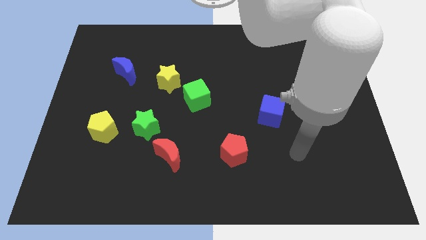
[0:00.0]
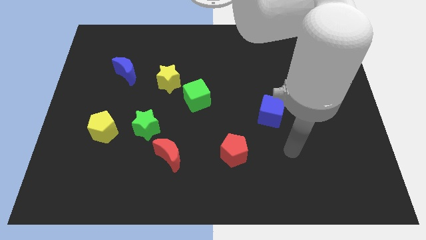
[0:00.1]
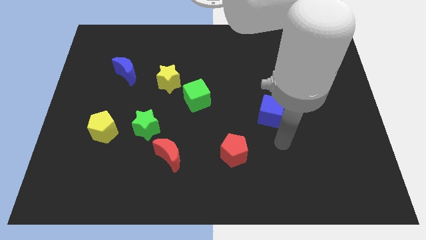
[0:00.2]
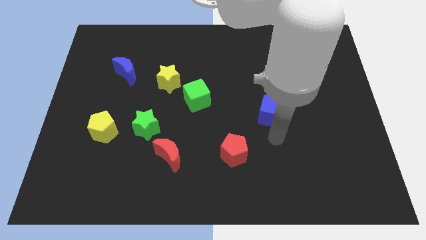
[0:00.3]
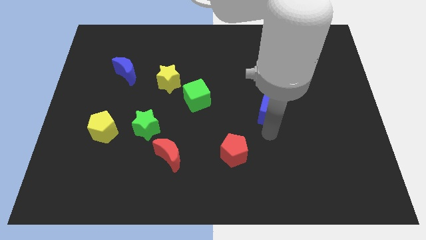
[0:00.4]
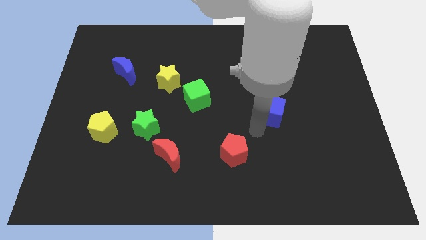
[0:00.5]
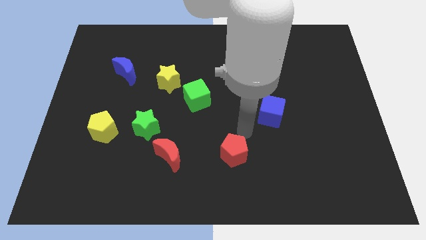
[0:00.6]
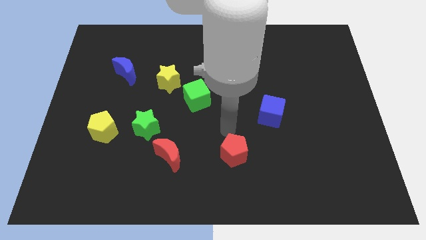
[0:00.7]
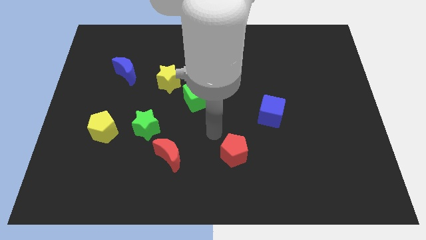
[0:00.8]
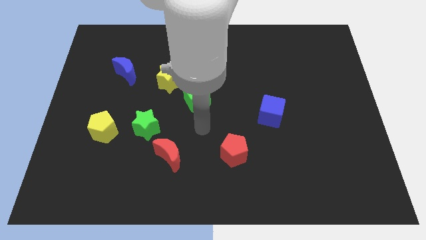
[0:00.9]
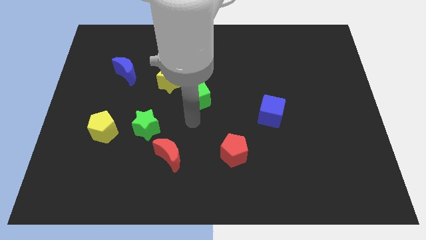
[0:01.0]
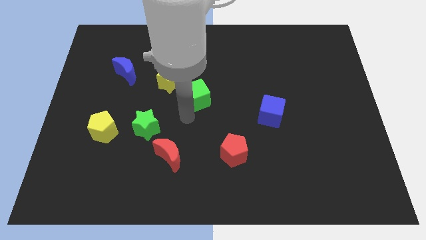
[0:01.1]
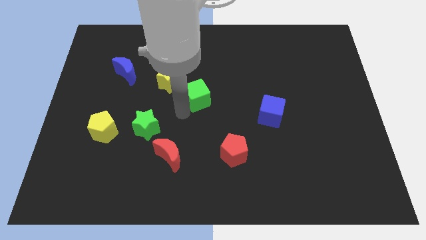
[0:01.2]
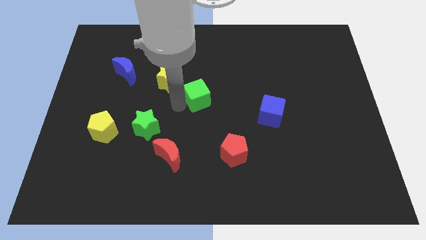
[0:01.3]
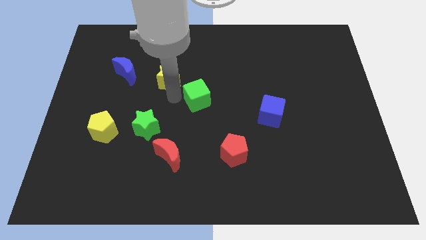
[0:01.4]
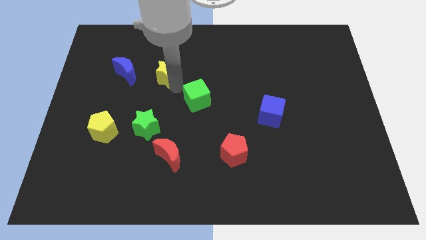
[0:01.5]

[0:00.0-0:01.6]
move the green cube away from the yellow star

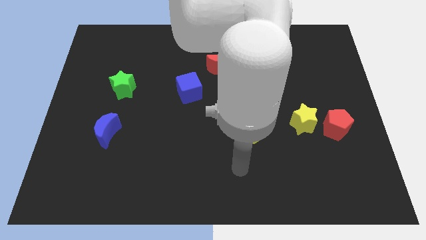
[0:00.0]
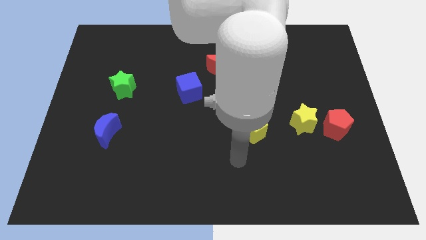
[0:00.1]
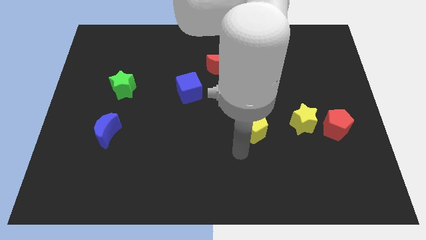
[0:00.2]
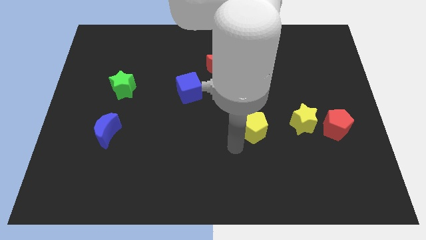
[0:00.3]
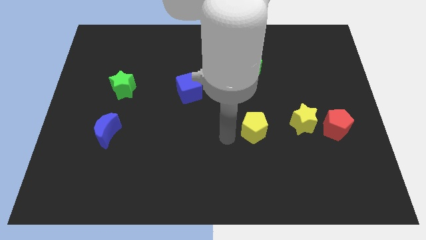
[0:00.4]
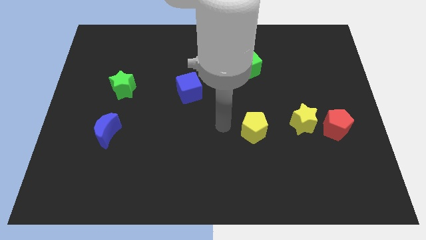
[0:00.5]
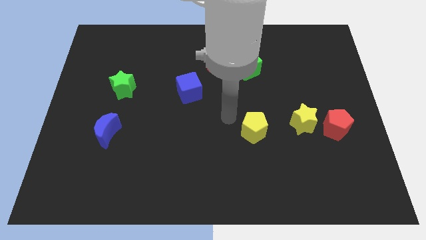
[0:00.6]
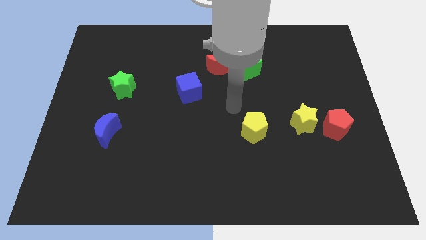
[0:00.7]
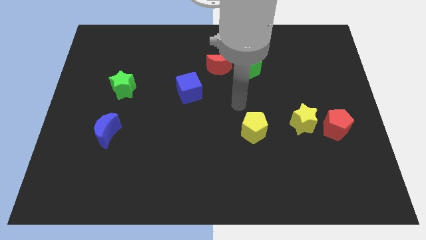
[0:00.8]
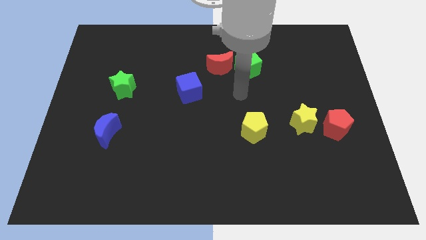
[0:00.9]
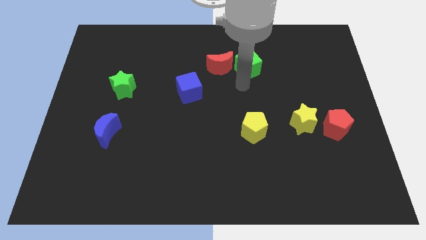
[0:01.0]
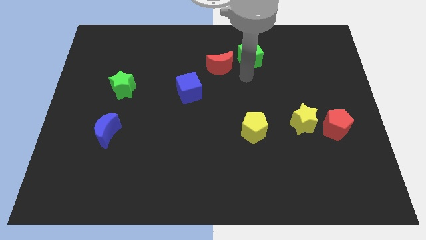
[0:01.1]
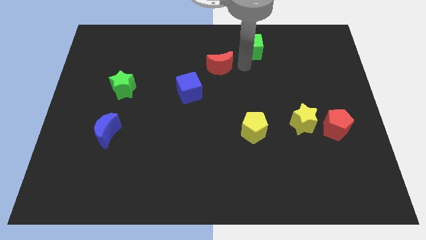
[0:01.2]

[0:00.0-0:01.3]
pull the red moon apart from the green cube

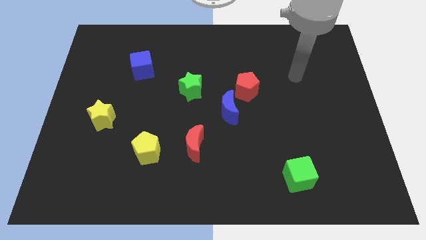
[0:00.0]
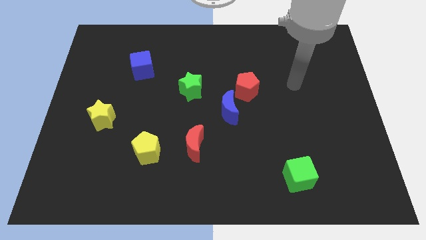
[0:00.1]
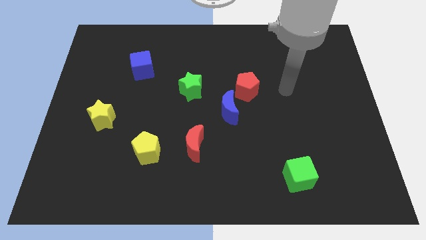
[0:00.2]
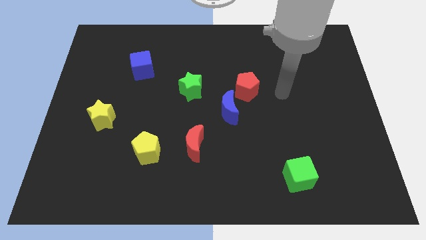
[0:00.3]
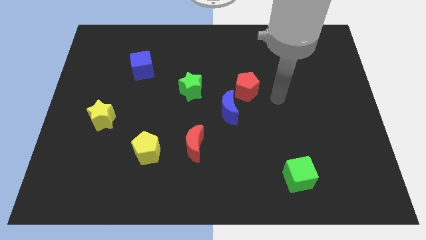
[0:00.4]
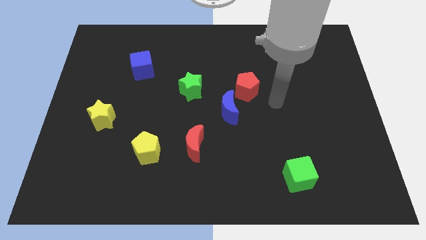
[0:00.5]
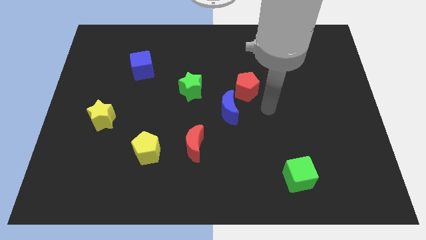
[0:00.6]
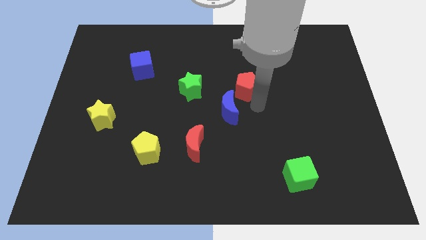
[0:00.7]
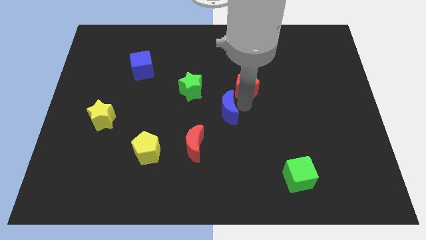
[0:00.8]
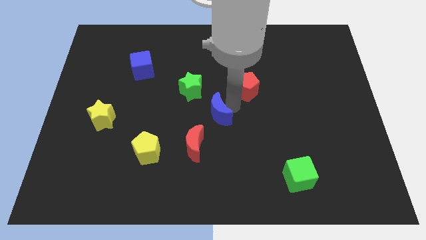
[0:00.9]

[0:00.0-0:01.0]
separate the red pentagon from the blue moon

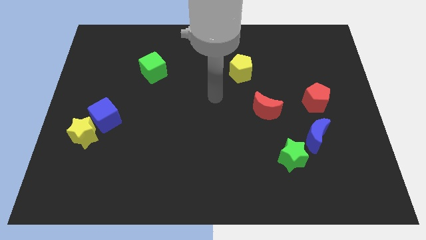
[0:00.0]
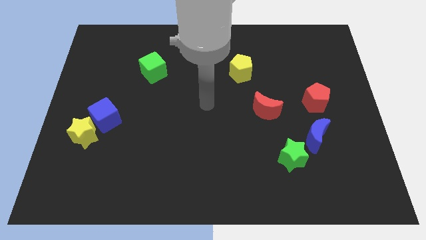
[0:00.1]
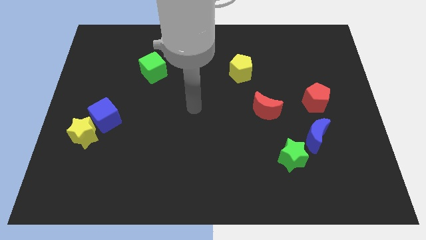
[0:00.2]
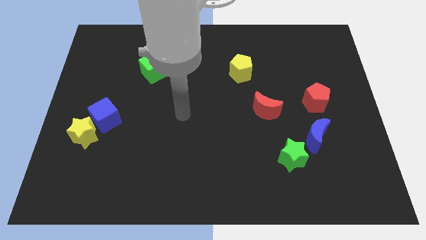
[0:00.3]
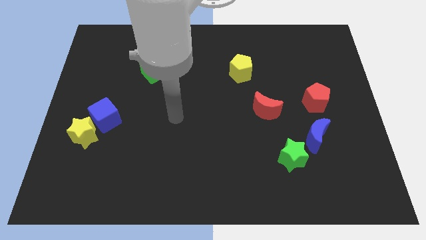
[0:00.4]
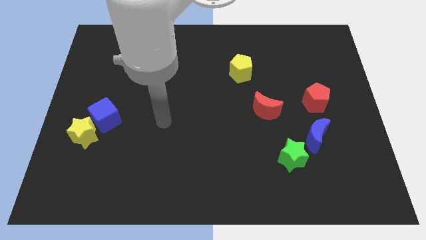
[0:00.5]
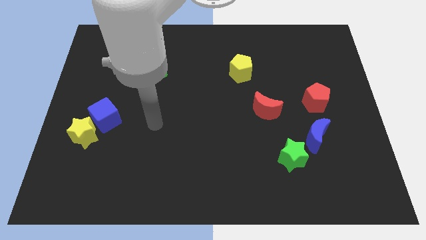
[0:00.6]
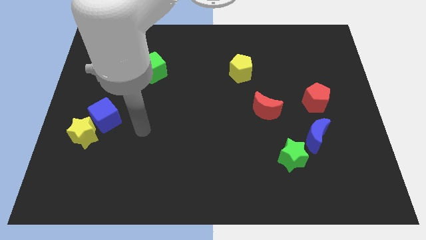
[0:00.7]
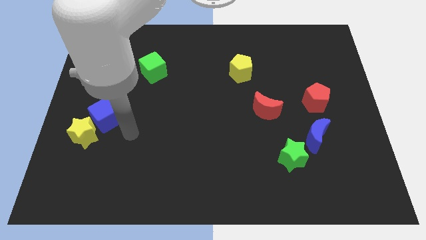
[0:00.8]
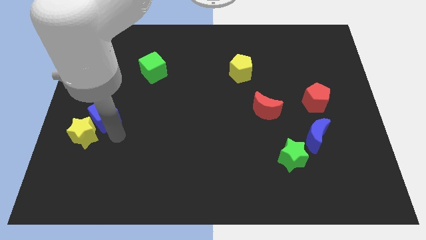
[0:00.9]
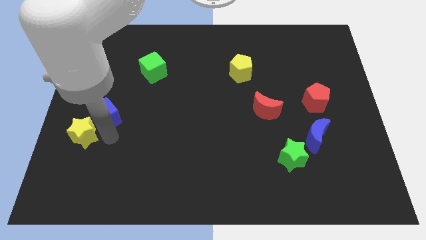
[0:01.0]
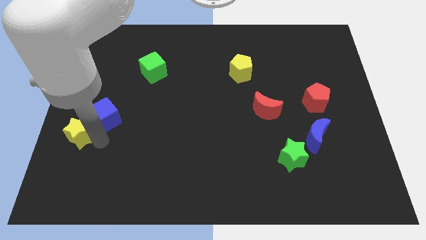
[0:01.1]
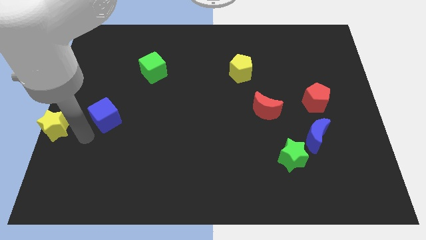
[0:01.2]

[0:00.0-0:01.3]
move the blue cube away from the yellow star

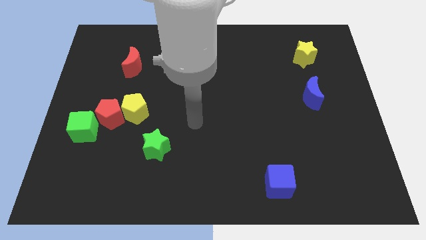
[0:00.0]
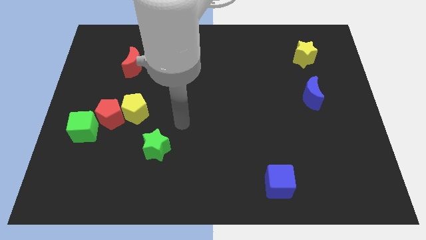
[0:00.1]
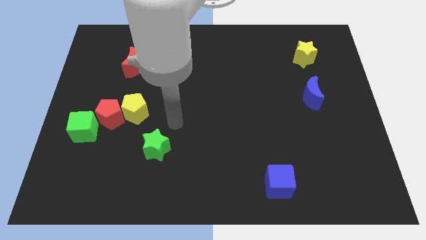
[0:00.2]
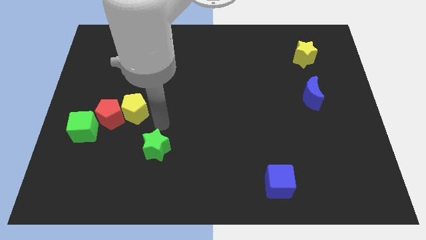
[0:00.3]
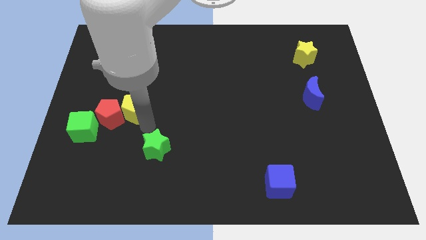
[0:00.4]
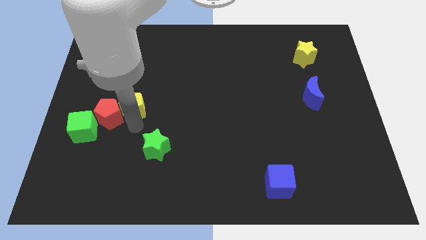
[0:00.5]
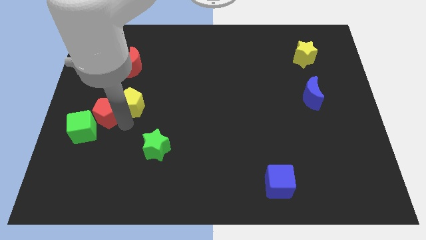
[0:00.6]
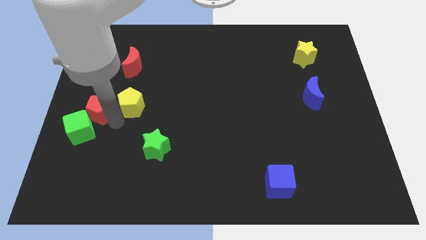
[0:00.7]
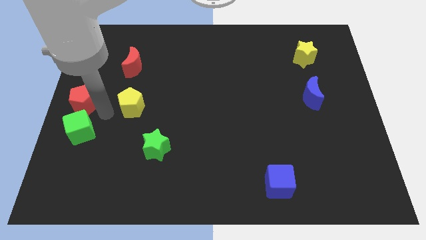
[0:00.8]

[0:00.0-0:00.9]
move the yellow pentagon away from the red pentagon

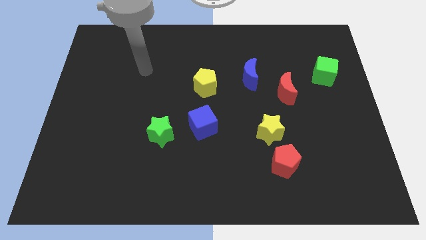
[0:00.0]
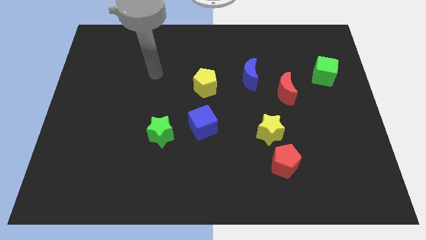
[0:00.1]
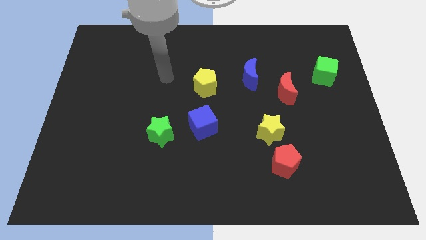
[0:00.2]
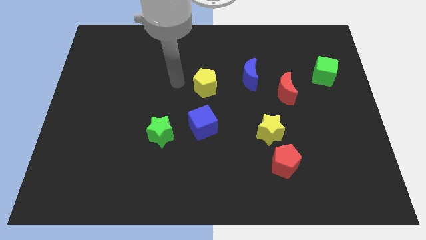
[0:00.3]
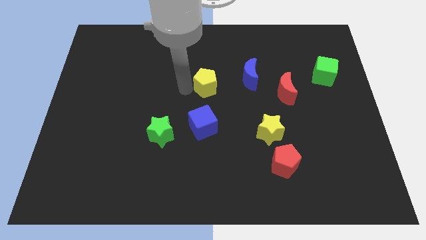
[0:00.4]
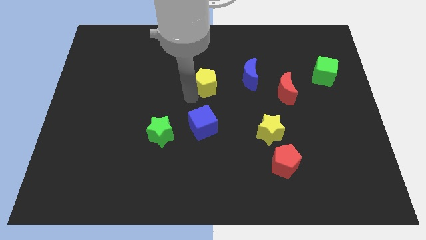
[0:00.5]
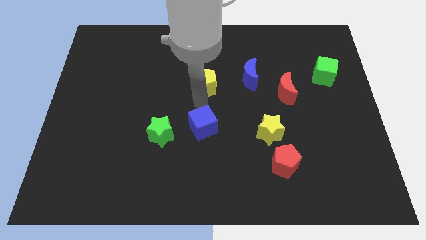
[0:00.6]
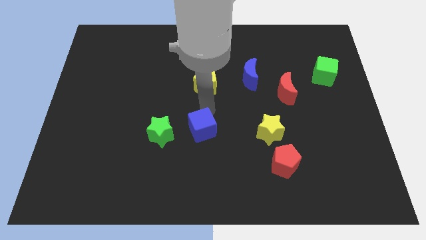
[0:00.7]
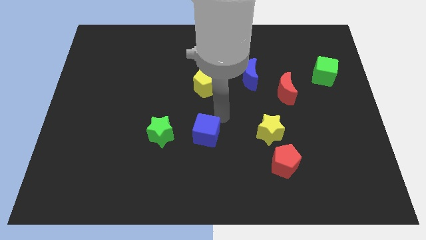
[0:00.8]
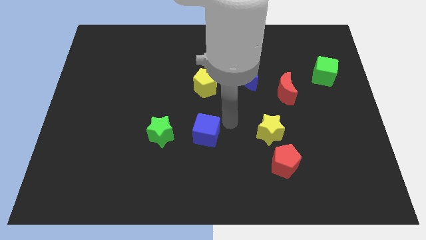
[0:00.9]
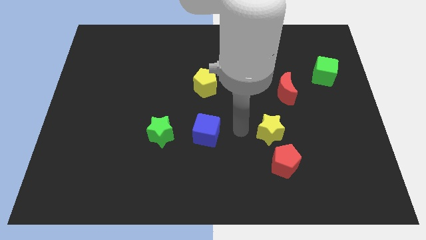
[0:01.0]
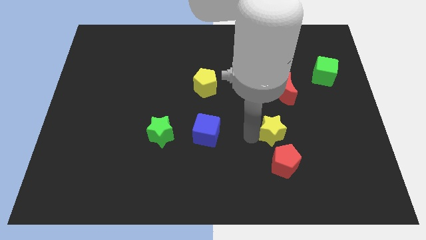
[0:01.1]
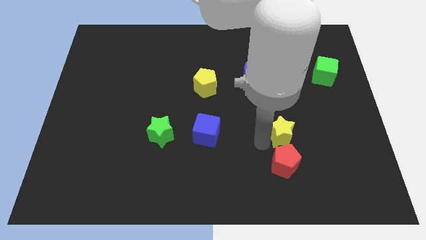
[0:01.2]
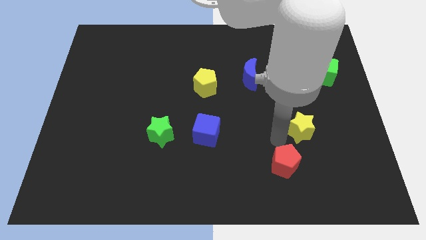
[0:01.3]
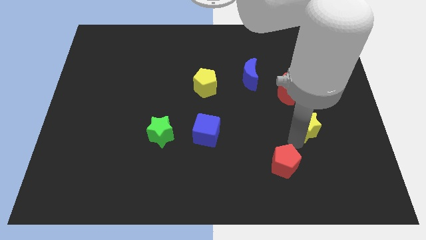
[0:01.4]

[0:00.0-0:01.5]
move the red pentagon away from the yellow star

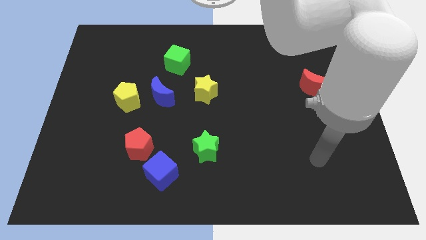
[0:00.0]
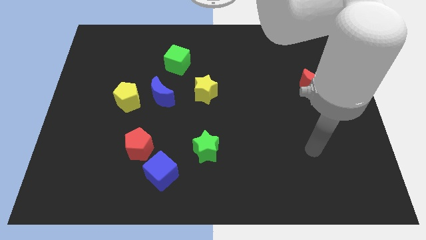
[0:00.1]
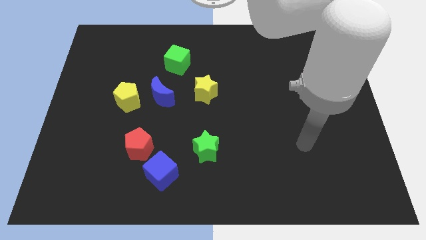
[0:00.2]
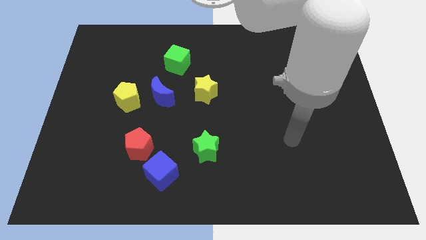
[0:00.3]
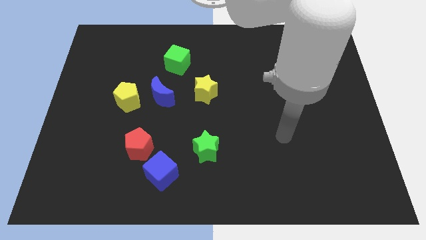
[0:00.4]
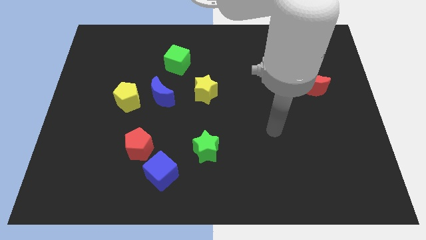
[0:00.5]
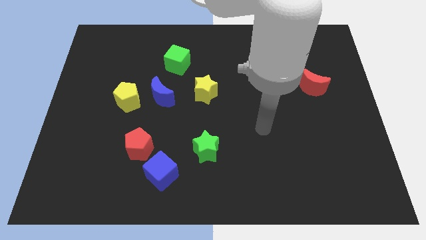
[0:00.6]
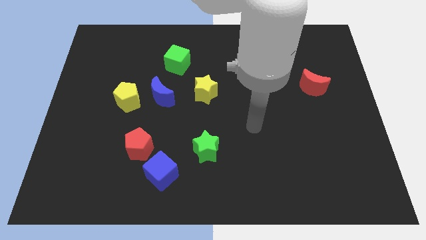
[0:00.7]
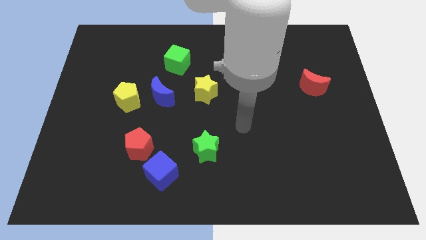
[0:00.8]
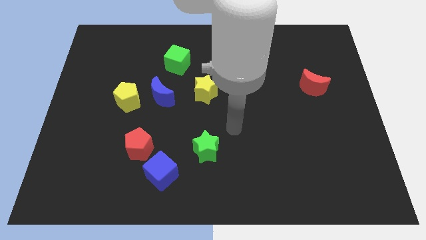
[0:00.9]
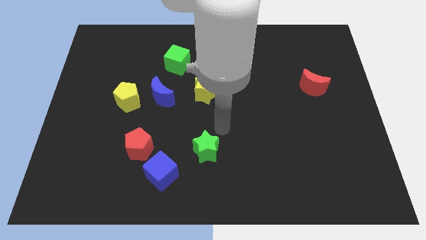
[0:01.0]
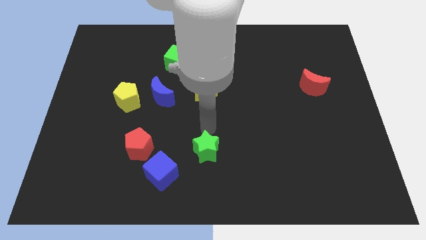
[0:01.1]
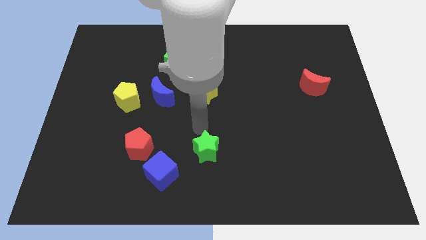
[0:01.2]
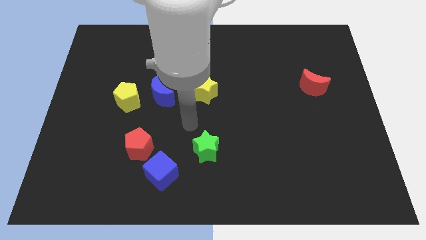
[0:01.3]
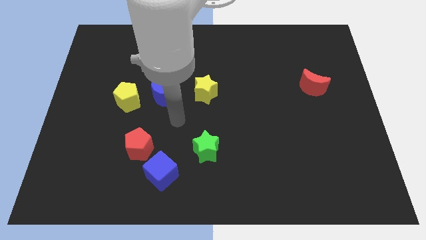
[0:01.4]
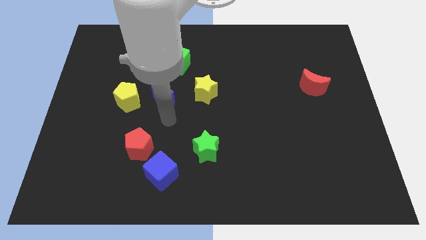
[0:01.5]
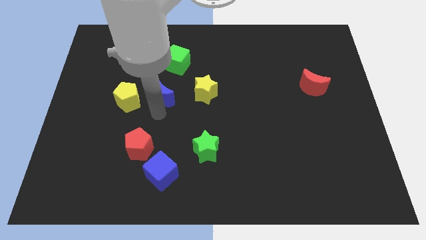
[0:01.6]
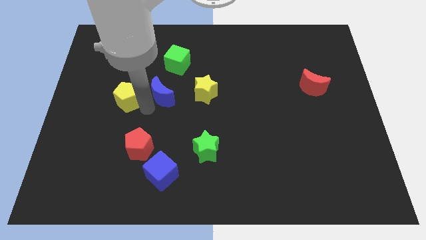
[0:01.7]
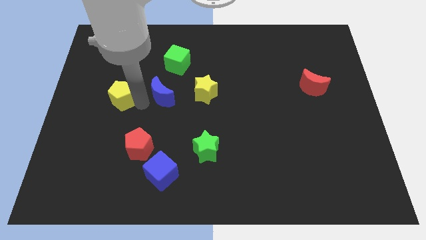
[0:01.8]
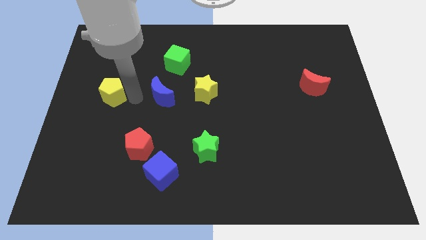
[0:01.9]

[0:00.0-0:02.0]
move the blue moon away from the yellow pentagon
